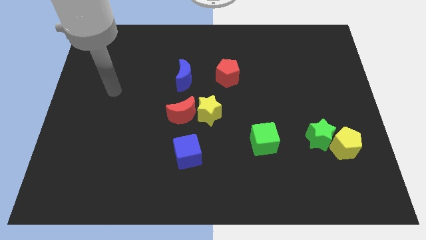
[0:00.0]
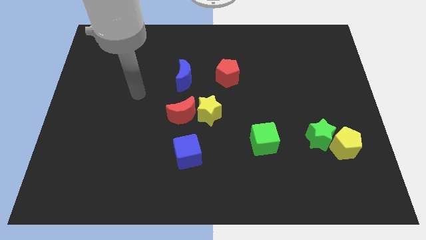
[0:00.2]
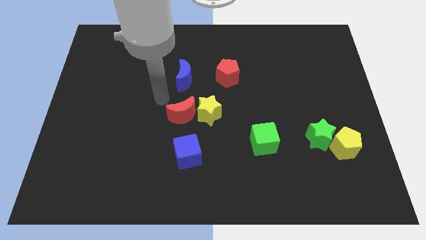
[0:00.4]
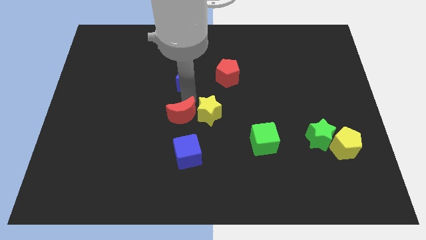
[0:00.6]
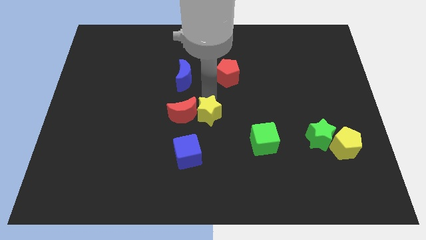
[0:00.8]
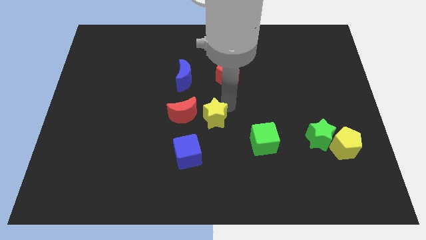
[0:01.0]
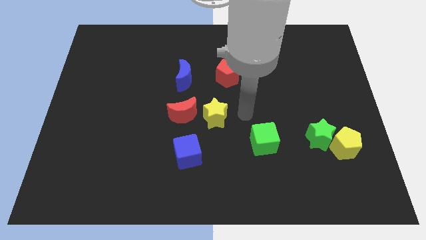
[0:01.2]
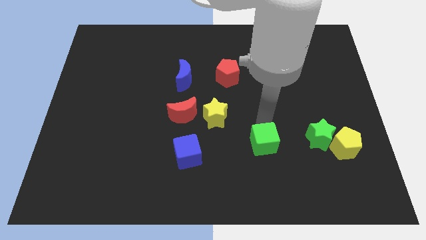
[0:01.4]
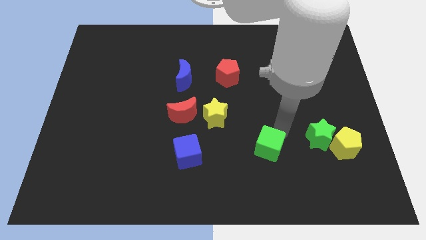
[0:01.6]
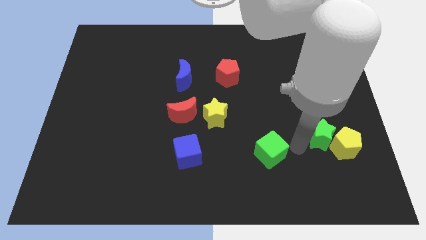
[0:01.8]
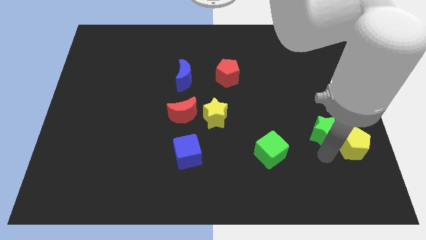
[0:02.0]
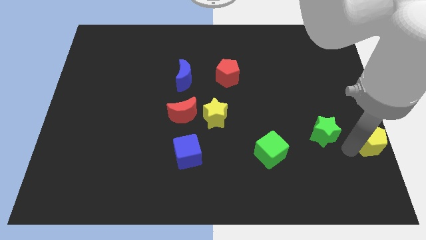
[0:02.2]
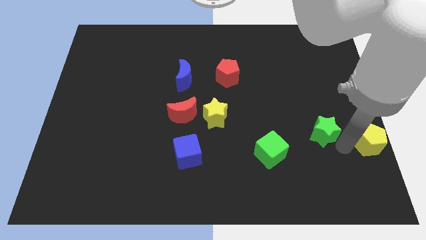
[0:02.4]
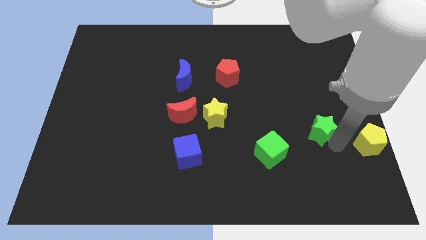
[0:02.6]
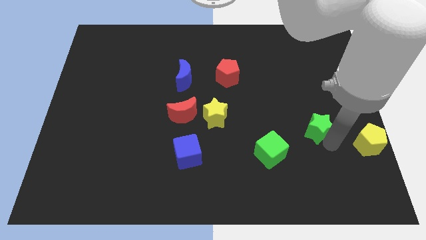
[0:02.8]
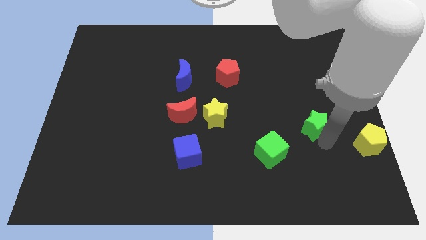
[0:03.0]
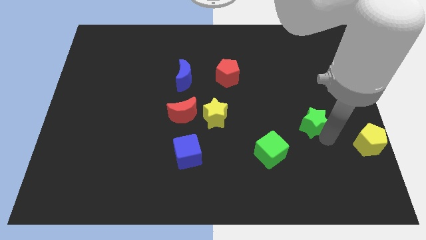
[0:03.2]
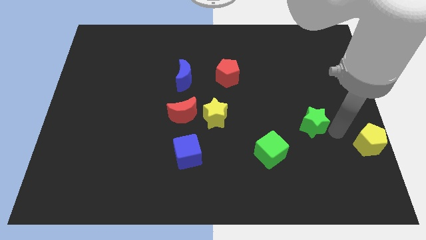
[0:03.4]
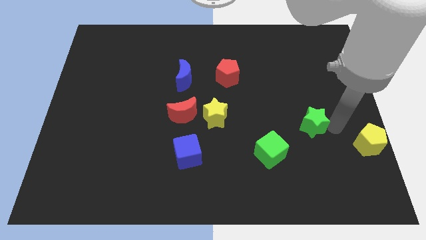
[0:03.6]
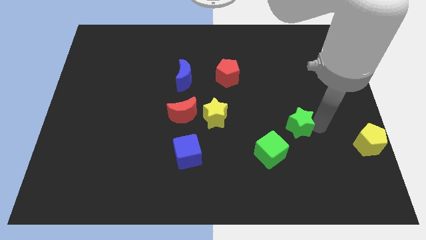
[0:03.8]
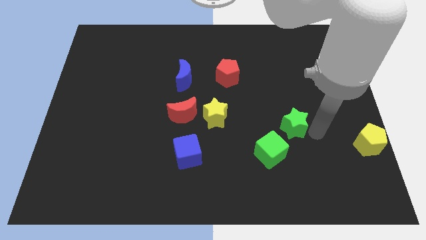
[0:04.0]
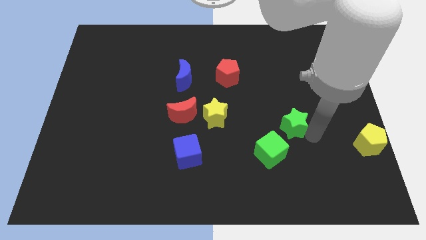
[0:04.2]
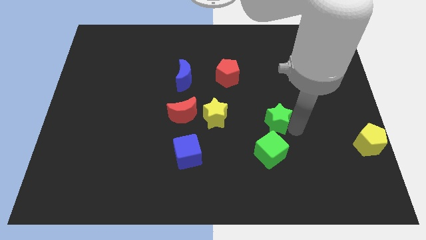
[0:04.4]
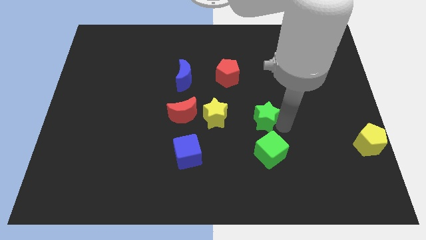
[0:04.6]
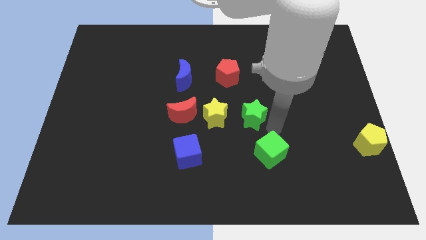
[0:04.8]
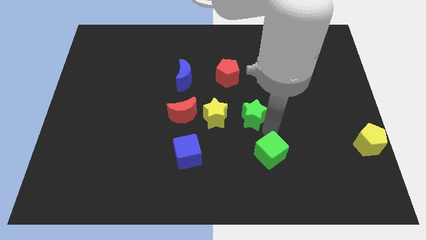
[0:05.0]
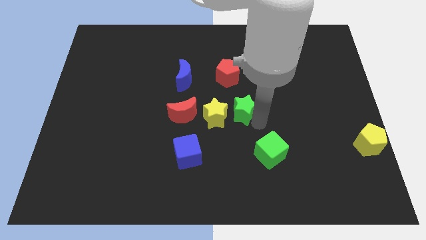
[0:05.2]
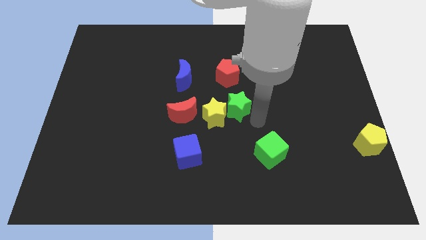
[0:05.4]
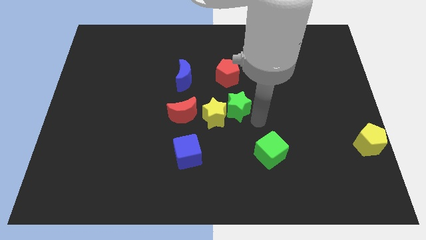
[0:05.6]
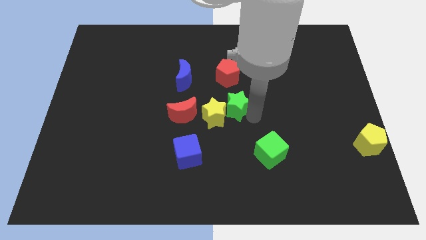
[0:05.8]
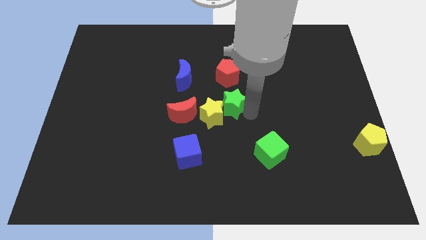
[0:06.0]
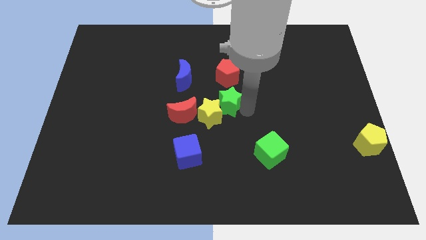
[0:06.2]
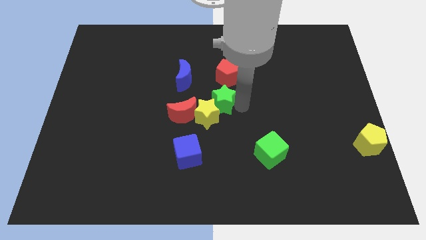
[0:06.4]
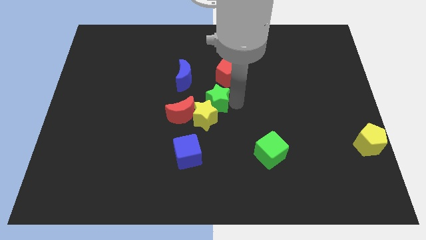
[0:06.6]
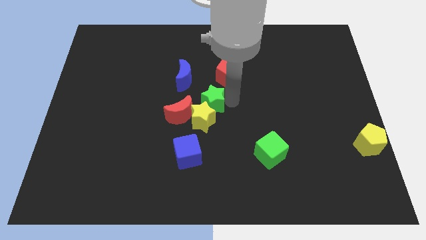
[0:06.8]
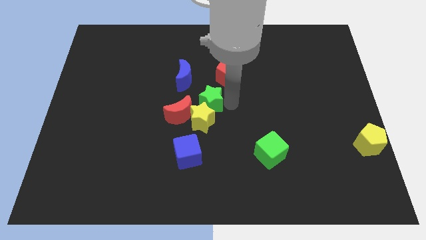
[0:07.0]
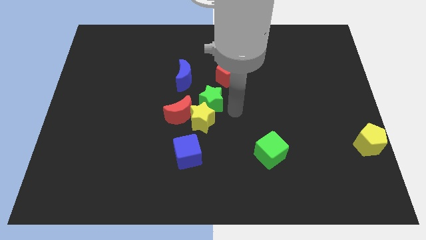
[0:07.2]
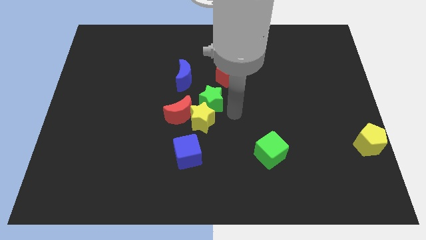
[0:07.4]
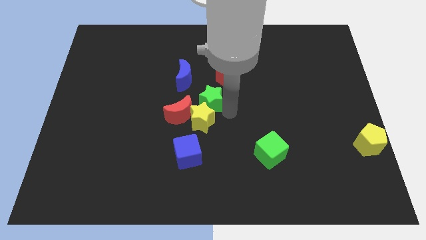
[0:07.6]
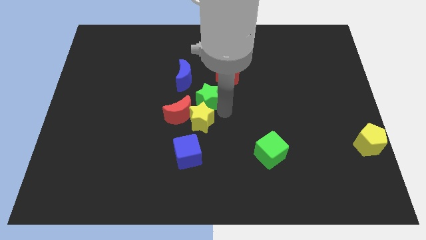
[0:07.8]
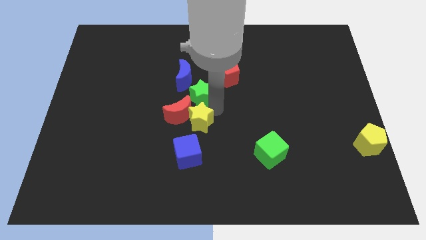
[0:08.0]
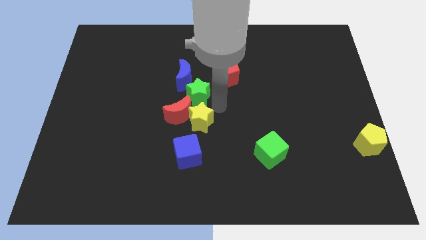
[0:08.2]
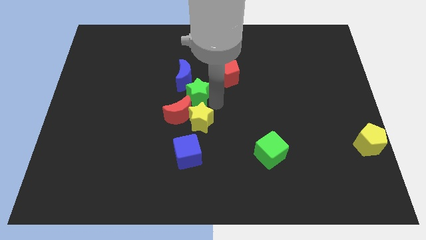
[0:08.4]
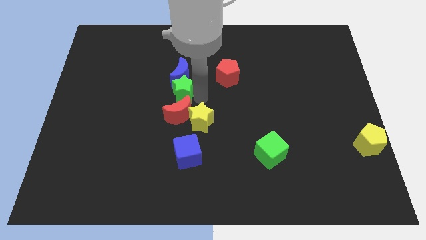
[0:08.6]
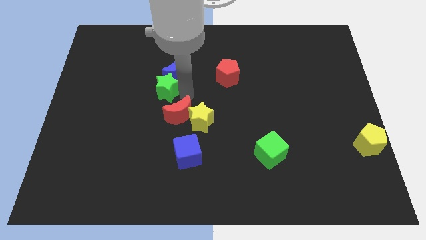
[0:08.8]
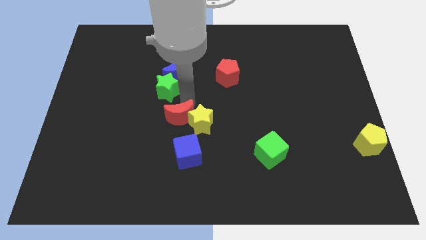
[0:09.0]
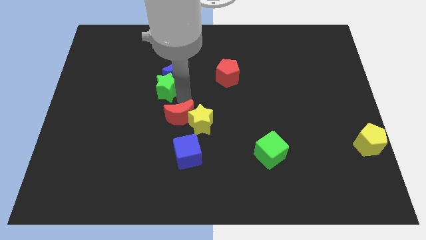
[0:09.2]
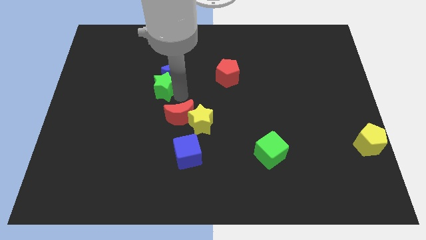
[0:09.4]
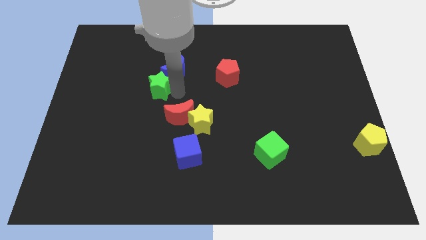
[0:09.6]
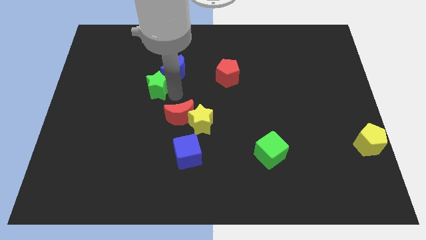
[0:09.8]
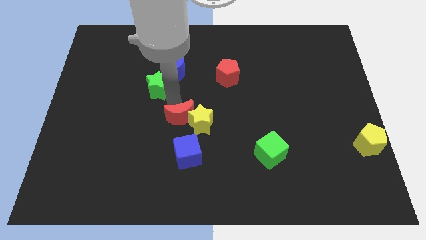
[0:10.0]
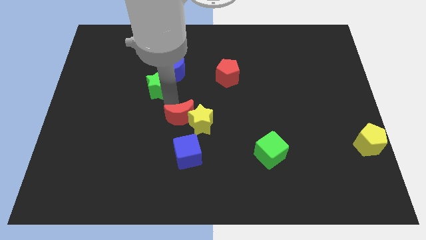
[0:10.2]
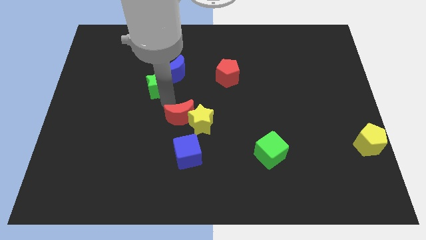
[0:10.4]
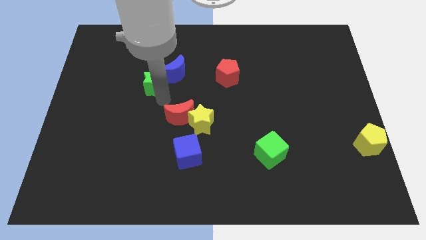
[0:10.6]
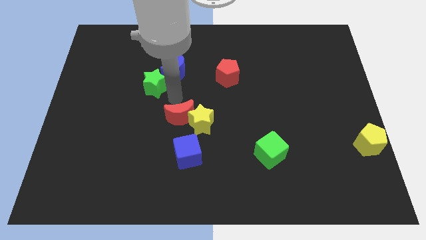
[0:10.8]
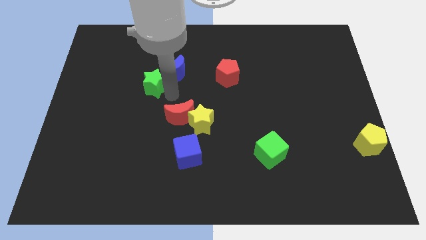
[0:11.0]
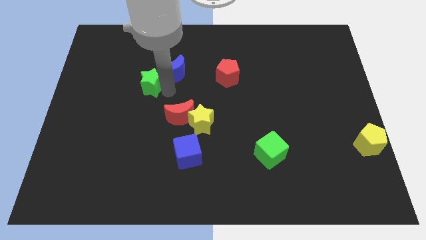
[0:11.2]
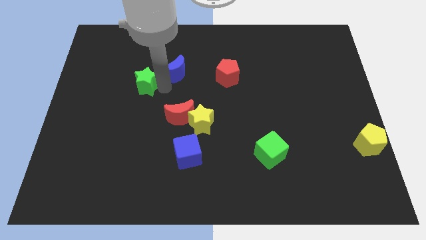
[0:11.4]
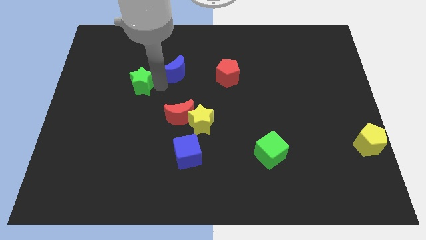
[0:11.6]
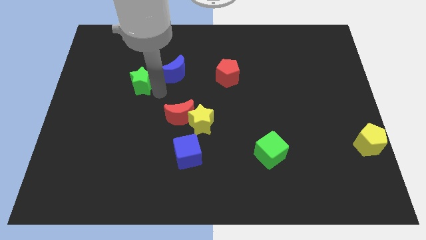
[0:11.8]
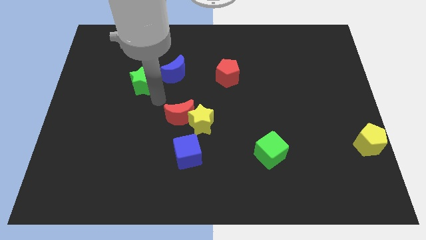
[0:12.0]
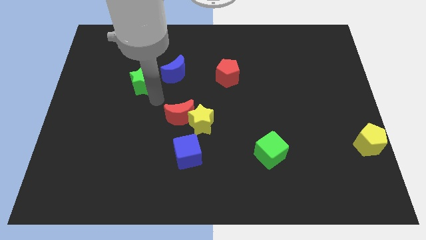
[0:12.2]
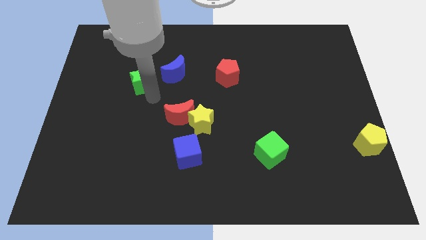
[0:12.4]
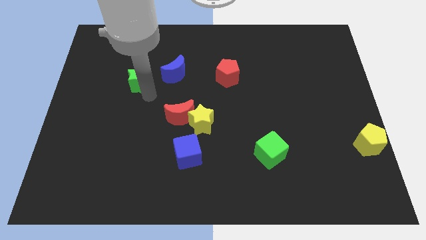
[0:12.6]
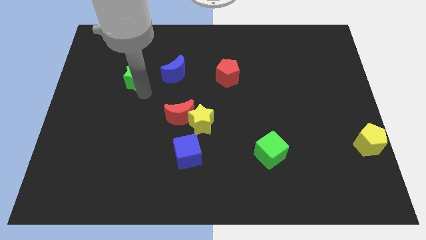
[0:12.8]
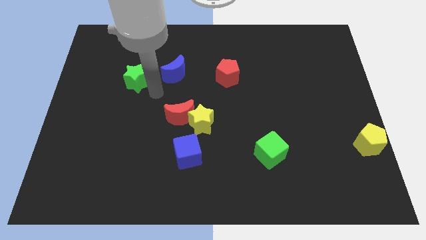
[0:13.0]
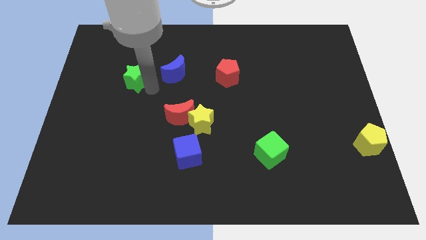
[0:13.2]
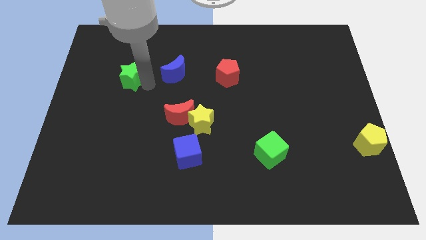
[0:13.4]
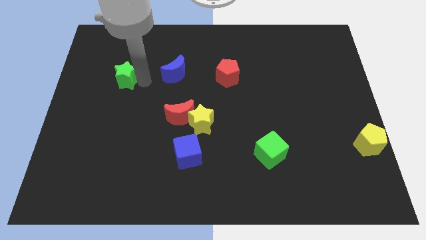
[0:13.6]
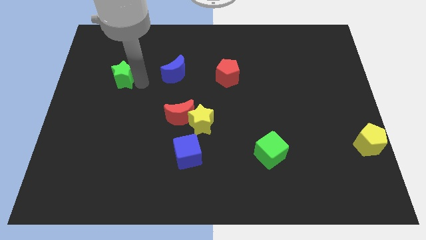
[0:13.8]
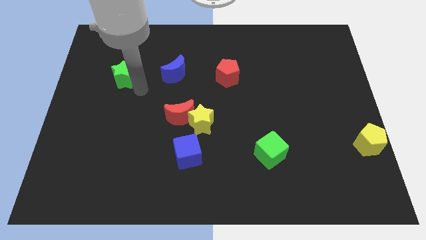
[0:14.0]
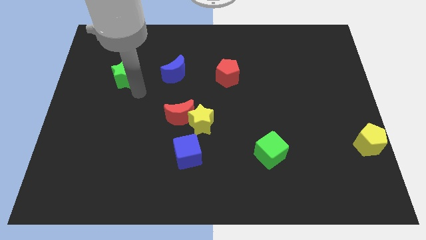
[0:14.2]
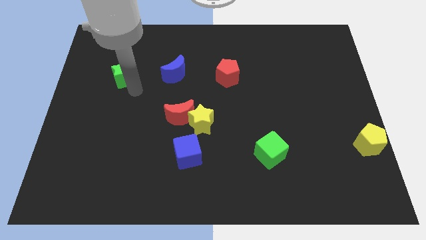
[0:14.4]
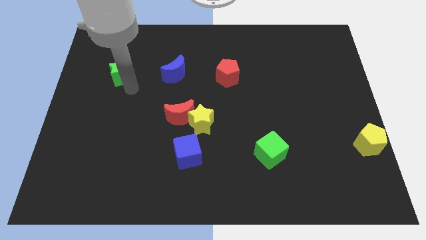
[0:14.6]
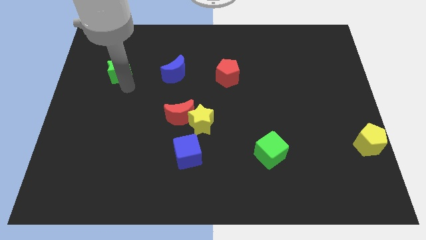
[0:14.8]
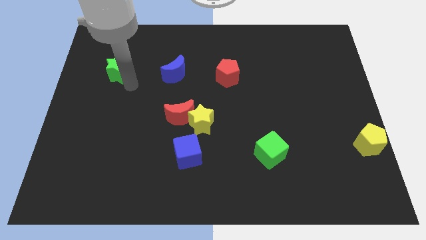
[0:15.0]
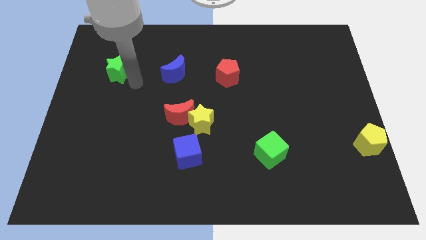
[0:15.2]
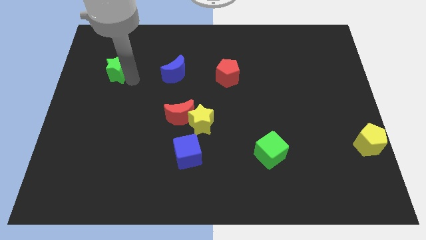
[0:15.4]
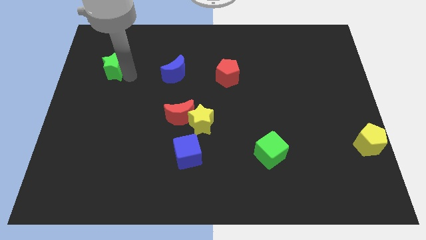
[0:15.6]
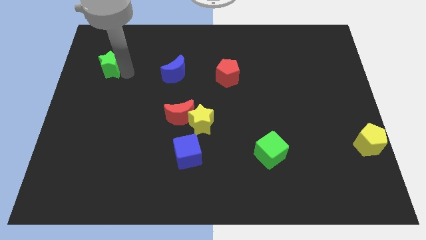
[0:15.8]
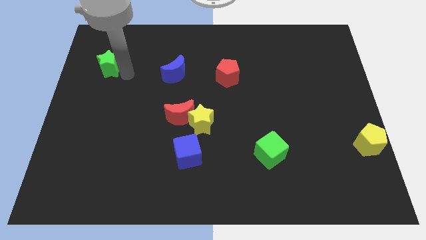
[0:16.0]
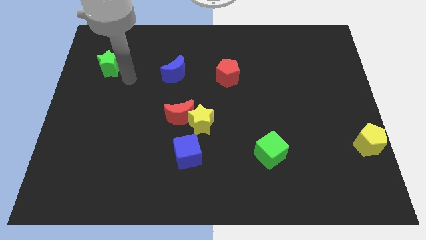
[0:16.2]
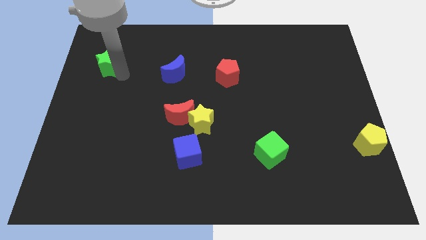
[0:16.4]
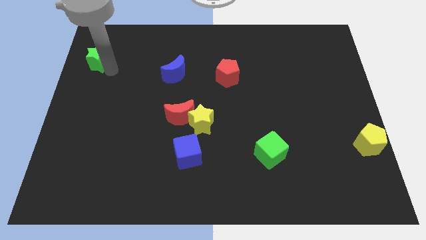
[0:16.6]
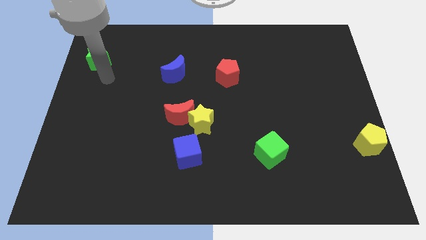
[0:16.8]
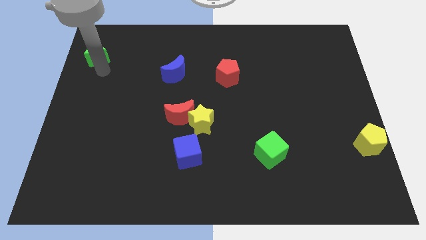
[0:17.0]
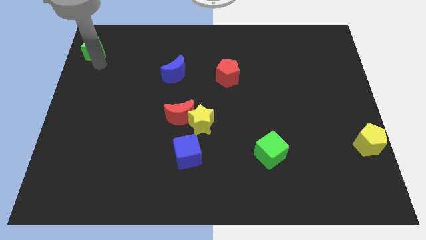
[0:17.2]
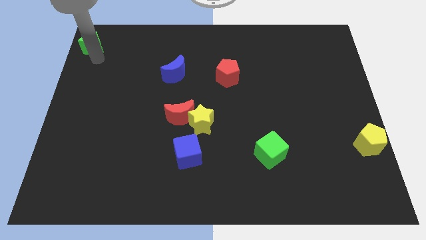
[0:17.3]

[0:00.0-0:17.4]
slide the green star to the upper left corner
